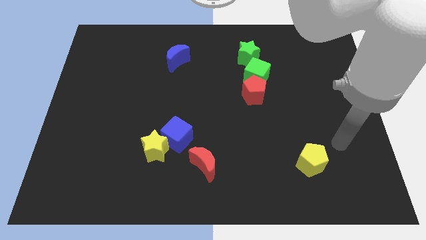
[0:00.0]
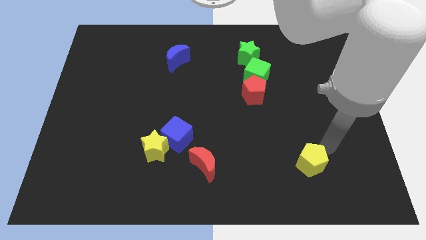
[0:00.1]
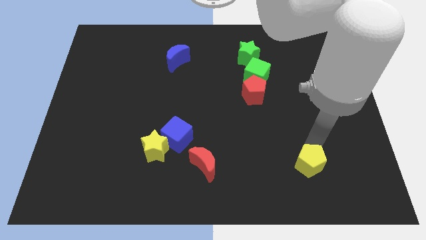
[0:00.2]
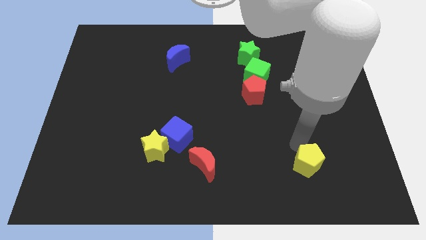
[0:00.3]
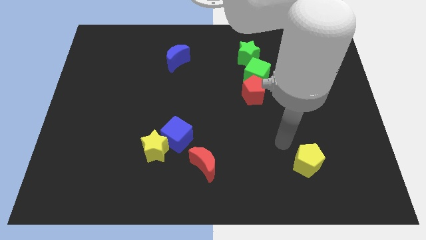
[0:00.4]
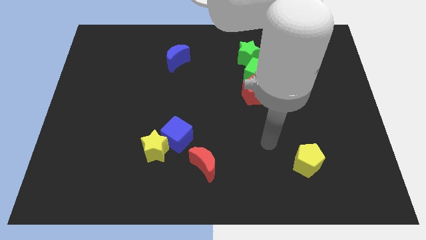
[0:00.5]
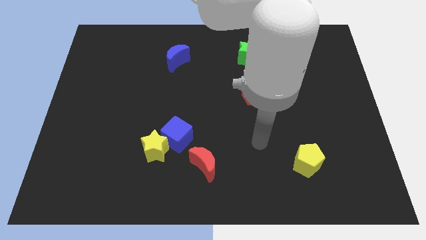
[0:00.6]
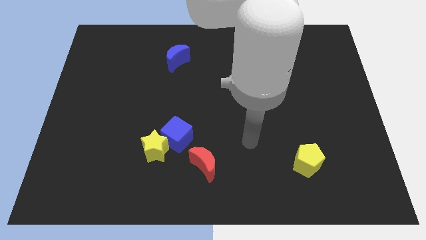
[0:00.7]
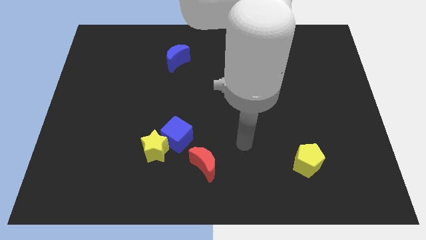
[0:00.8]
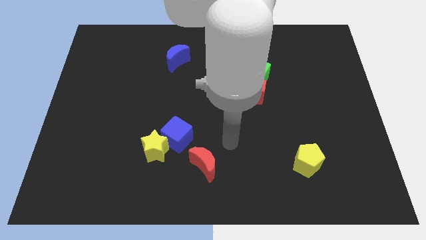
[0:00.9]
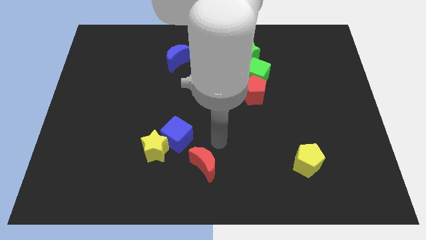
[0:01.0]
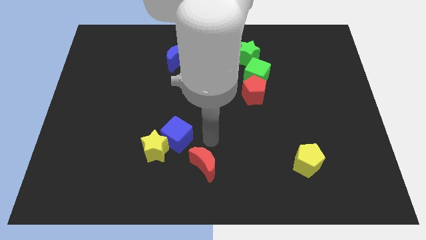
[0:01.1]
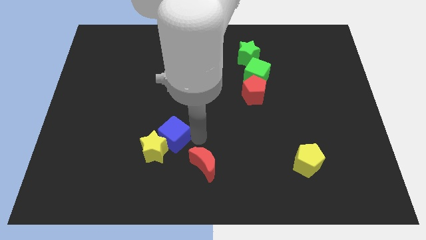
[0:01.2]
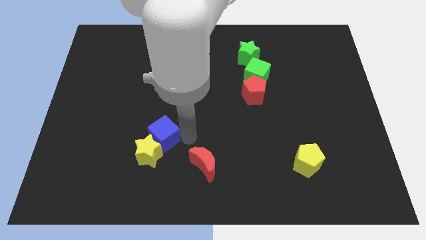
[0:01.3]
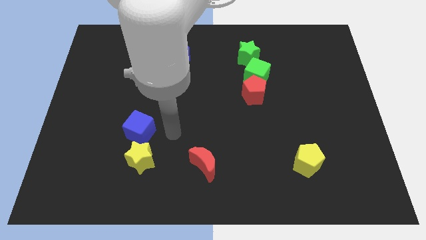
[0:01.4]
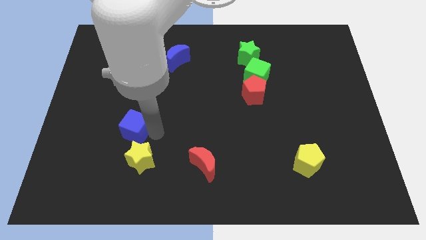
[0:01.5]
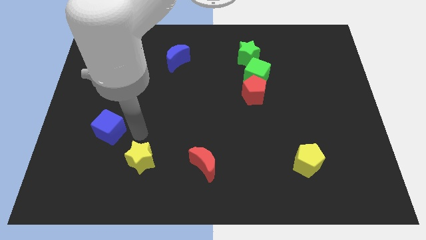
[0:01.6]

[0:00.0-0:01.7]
pull the yellow star apart from the blue cube

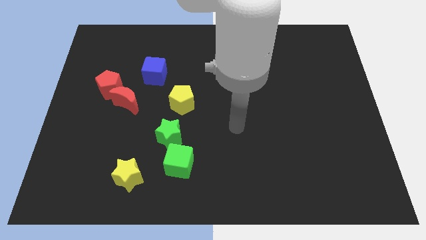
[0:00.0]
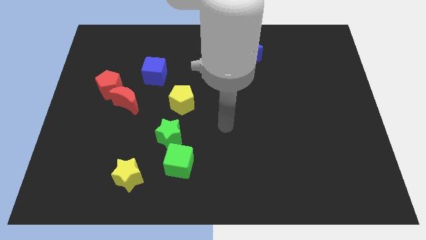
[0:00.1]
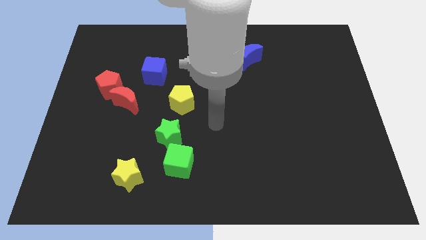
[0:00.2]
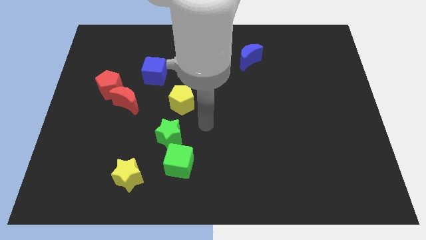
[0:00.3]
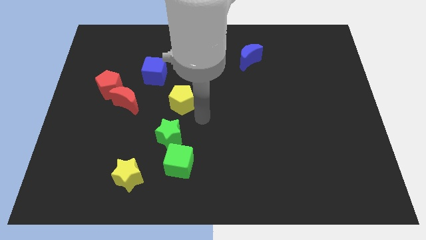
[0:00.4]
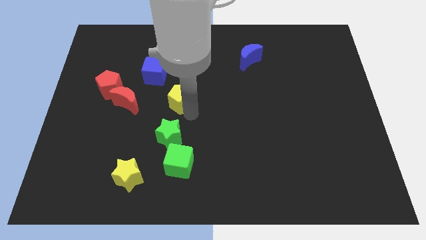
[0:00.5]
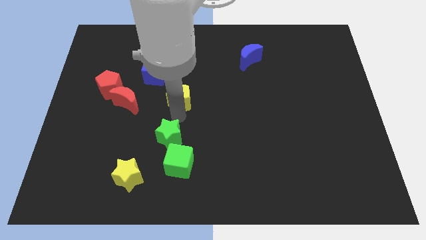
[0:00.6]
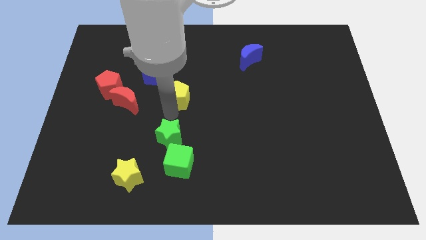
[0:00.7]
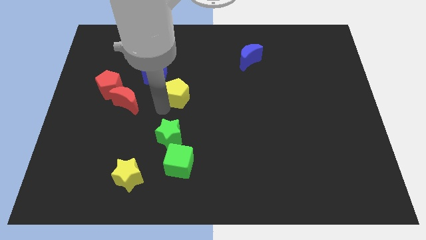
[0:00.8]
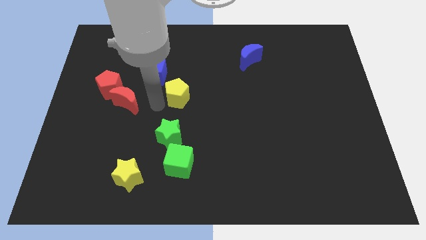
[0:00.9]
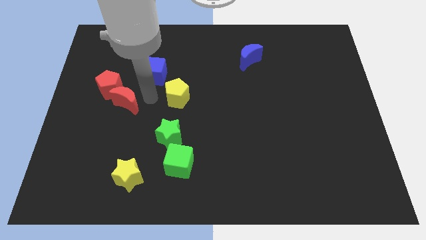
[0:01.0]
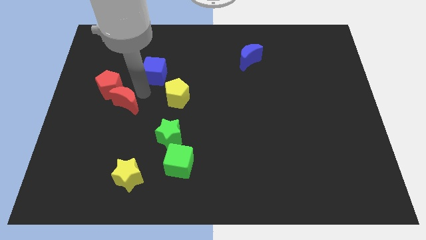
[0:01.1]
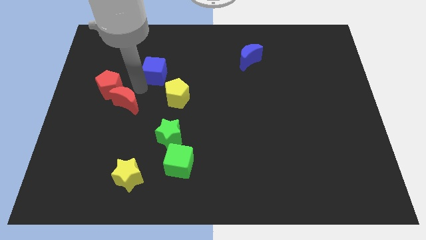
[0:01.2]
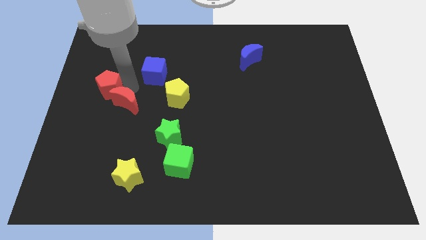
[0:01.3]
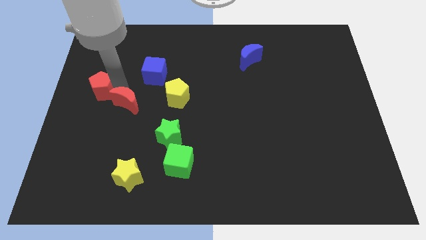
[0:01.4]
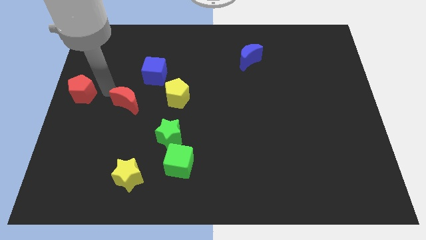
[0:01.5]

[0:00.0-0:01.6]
move the red moon away from the red pentagon

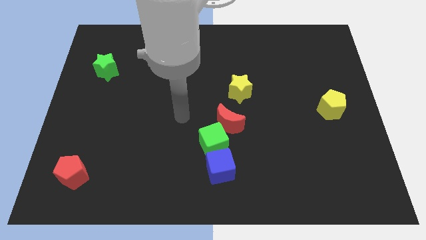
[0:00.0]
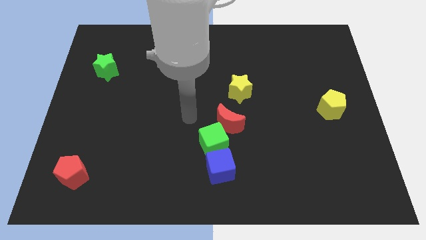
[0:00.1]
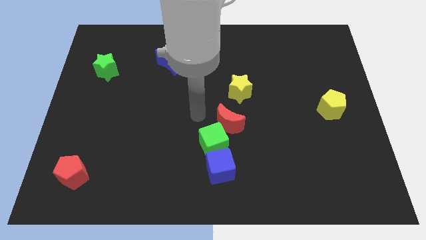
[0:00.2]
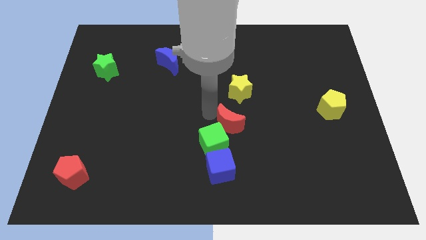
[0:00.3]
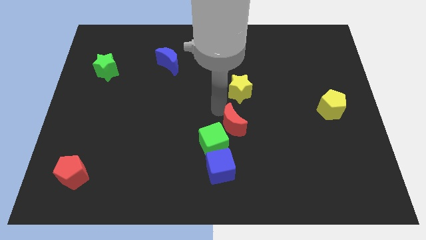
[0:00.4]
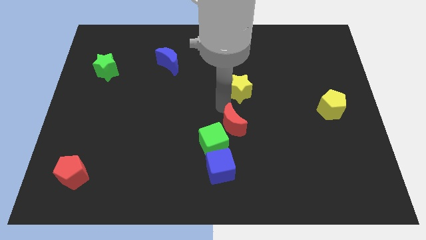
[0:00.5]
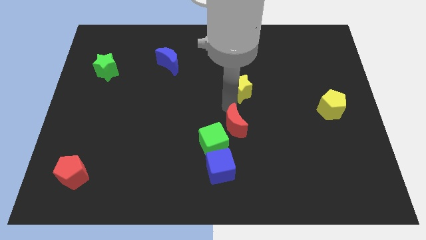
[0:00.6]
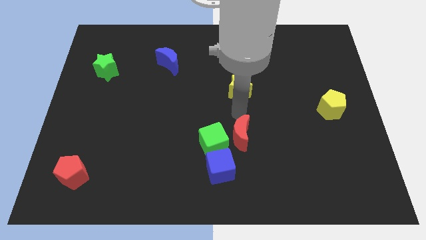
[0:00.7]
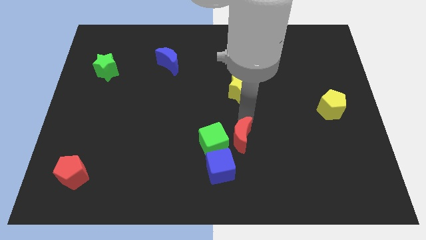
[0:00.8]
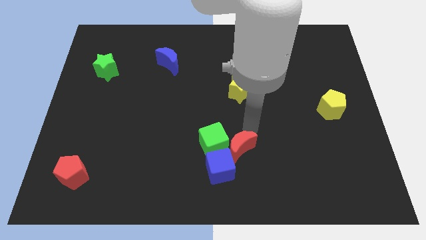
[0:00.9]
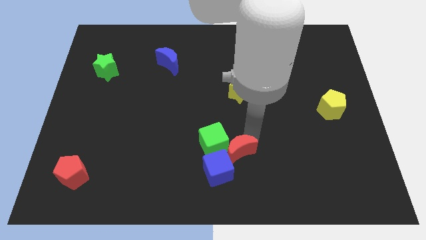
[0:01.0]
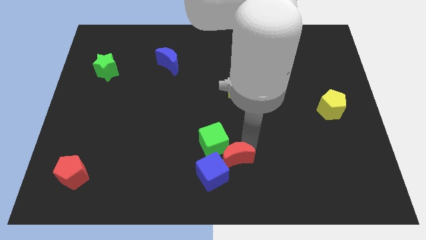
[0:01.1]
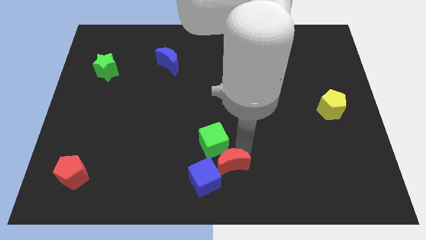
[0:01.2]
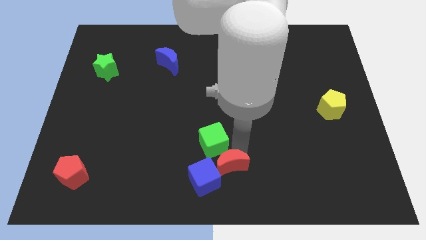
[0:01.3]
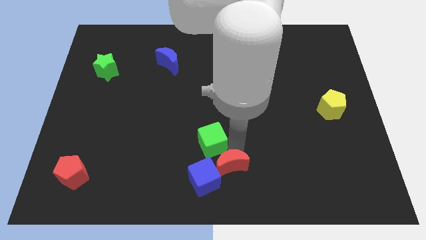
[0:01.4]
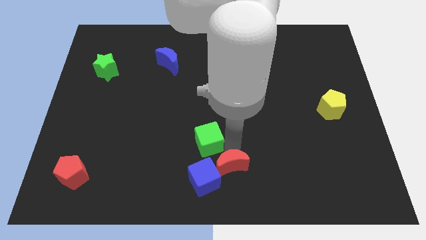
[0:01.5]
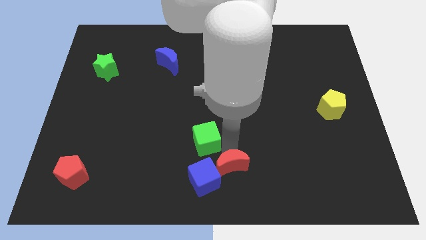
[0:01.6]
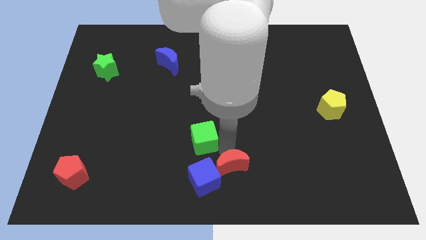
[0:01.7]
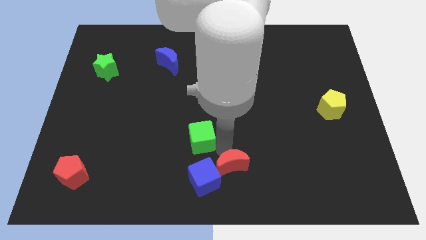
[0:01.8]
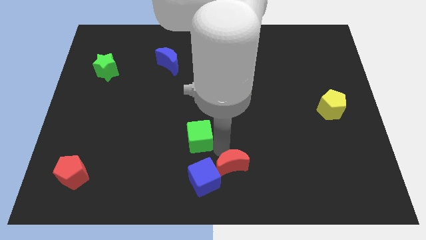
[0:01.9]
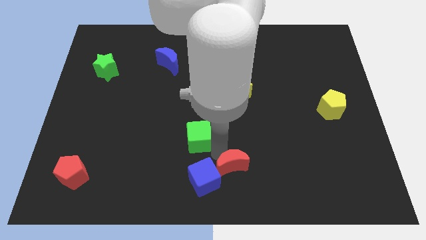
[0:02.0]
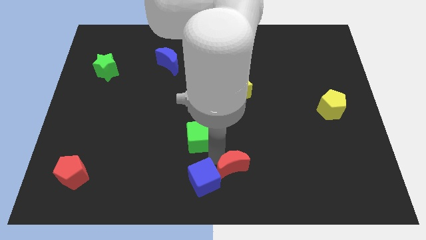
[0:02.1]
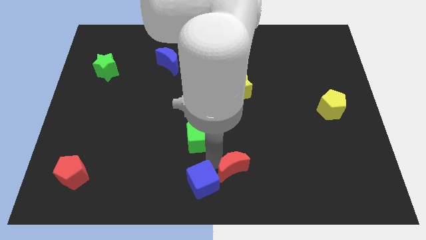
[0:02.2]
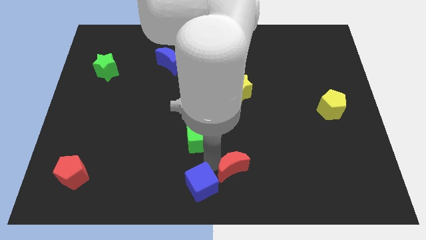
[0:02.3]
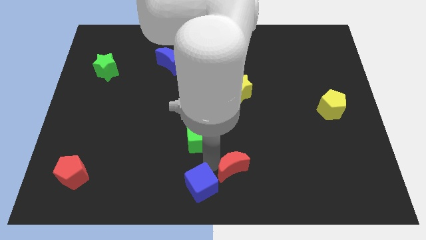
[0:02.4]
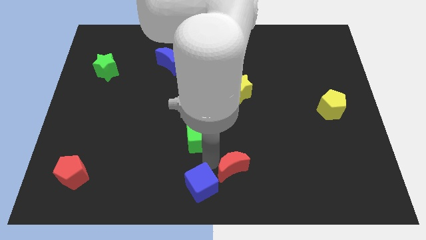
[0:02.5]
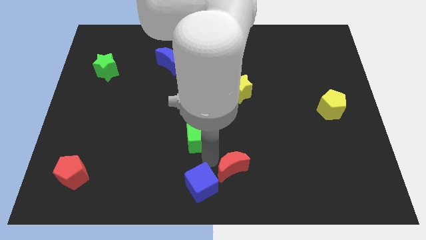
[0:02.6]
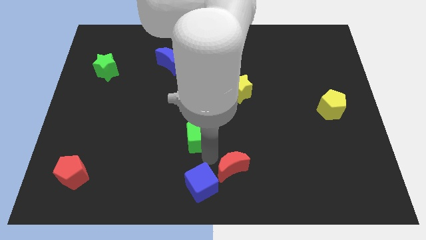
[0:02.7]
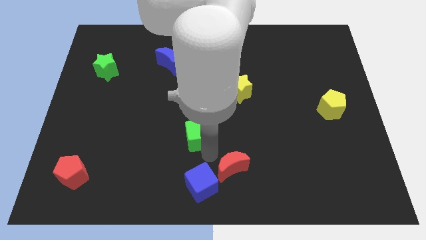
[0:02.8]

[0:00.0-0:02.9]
separate the green cube from the red moon and blue cube

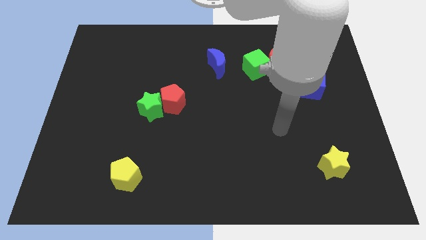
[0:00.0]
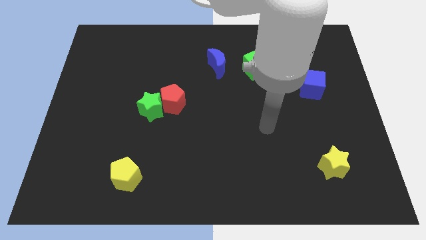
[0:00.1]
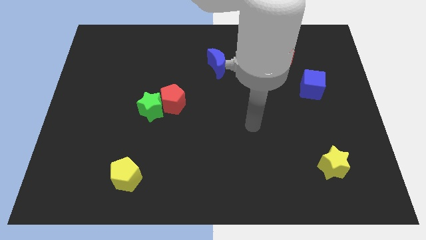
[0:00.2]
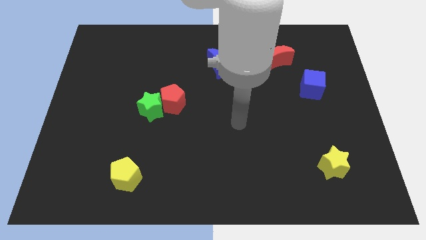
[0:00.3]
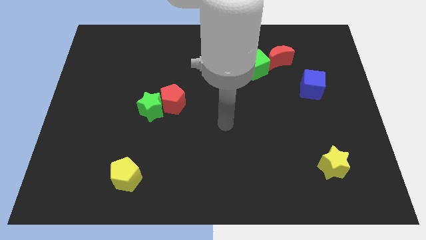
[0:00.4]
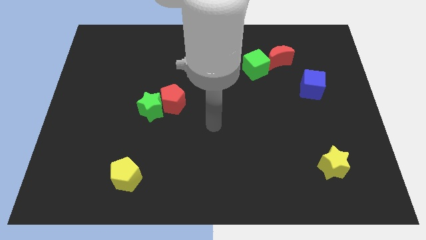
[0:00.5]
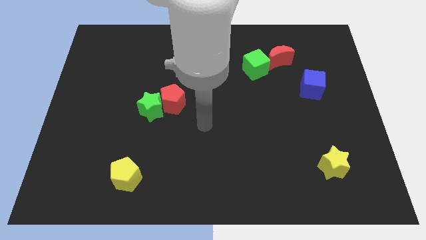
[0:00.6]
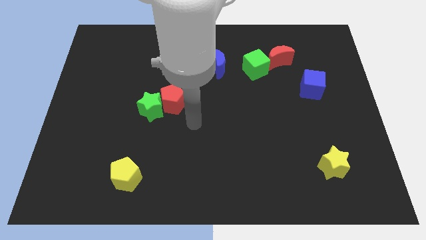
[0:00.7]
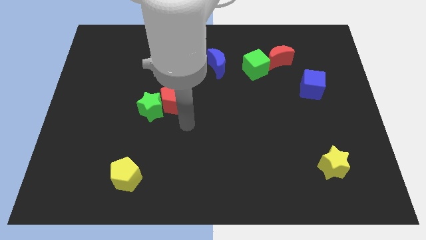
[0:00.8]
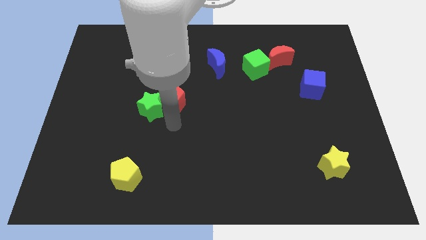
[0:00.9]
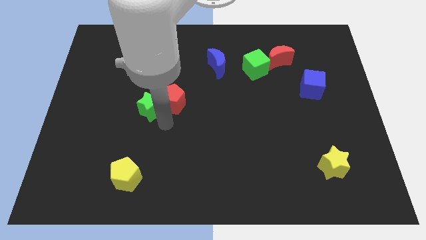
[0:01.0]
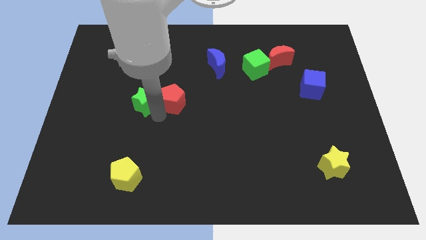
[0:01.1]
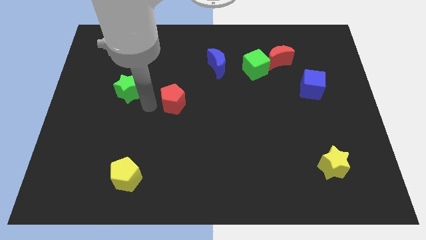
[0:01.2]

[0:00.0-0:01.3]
separate the red pentagon from the green star

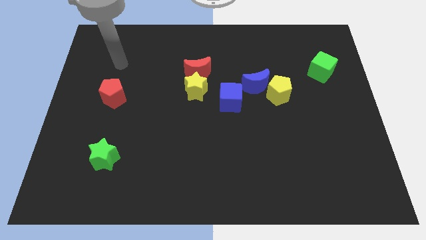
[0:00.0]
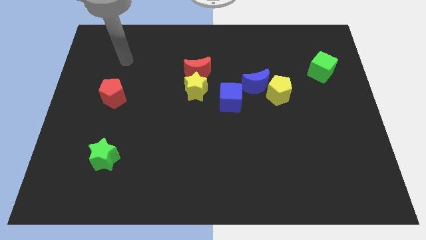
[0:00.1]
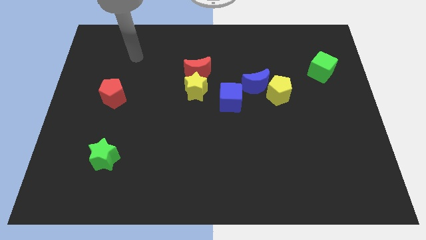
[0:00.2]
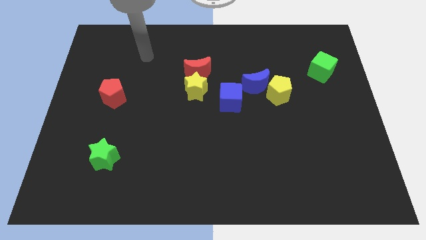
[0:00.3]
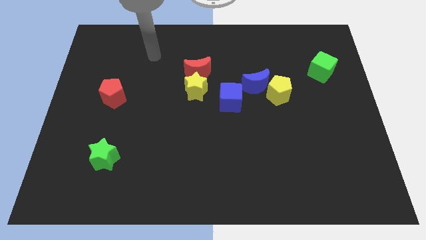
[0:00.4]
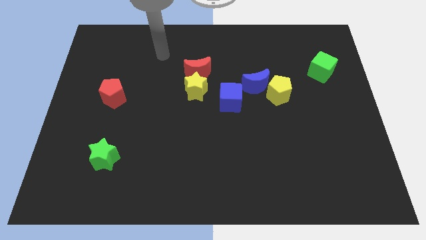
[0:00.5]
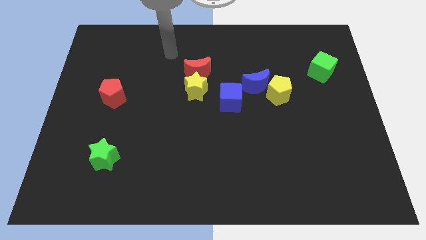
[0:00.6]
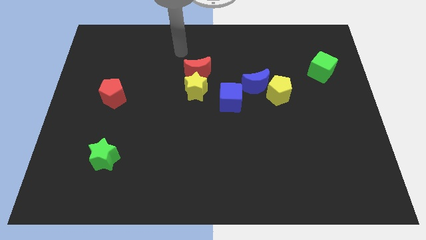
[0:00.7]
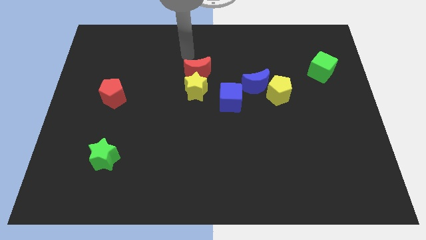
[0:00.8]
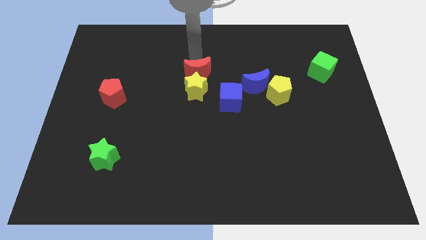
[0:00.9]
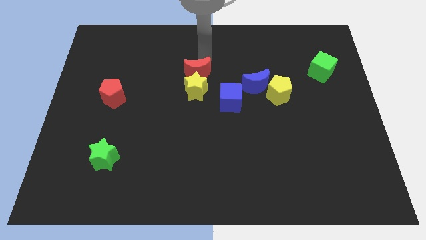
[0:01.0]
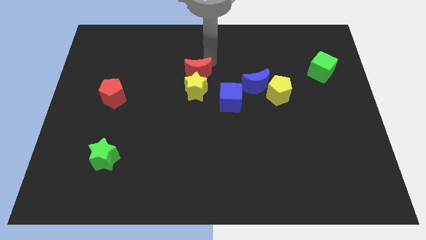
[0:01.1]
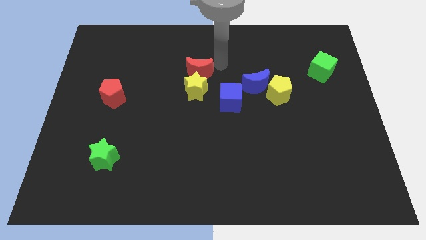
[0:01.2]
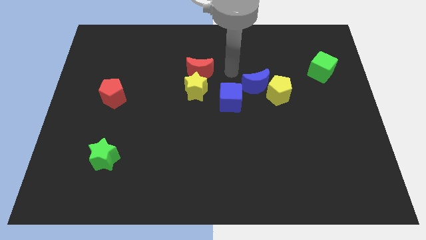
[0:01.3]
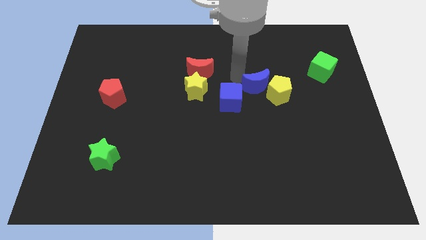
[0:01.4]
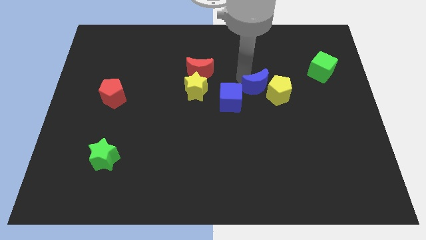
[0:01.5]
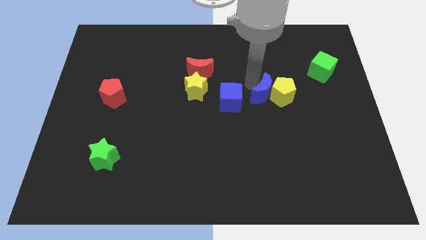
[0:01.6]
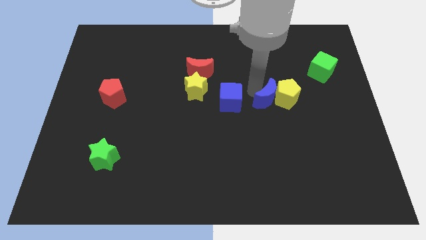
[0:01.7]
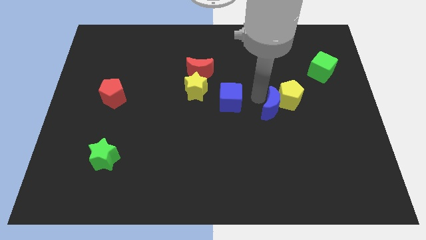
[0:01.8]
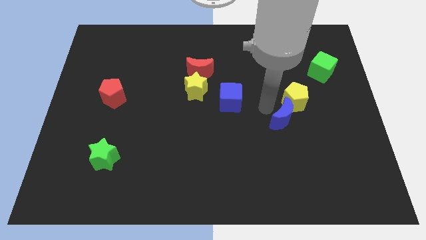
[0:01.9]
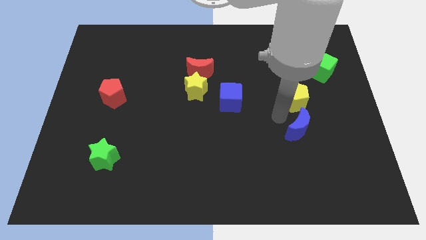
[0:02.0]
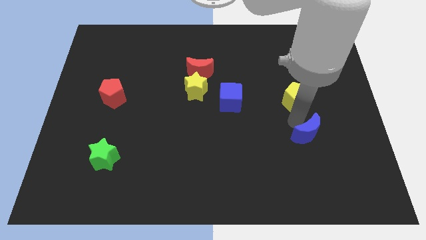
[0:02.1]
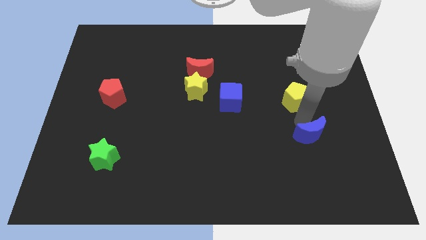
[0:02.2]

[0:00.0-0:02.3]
pull the yellow pentagon apart from the blue moon
